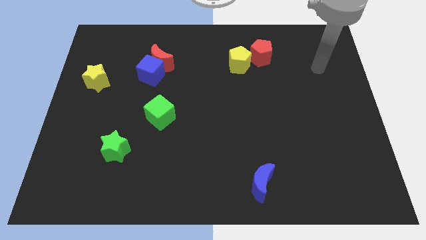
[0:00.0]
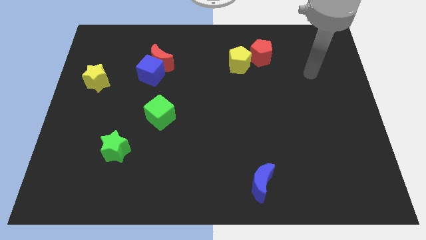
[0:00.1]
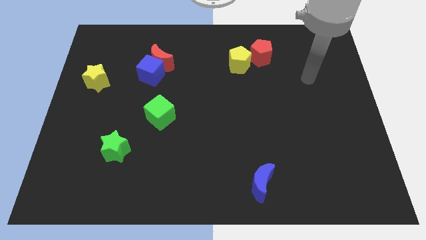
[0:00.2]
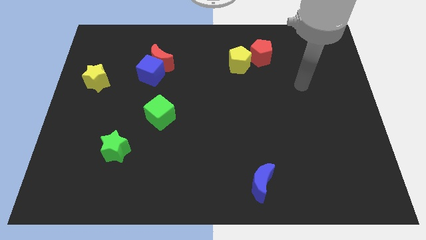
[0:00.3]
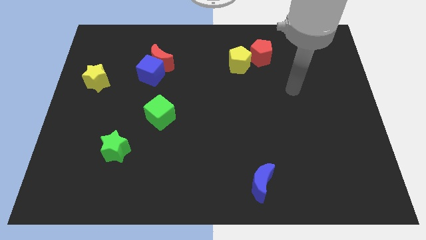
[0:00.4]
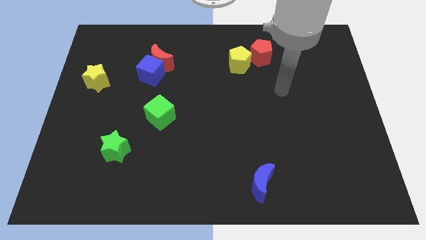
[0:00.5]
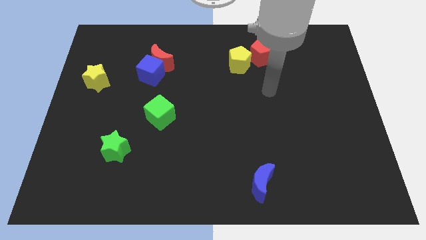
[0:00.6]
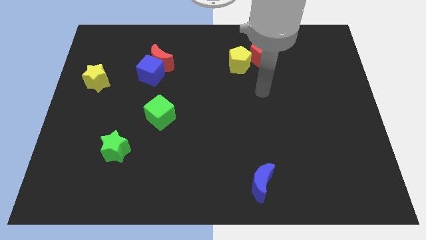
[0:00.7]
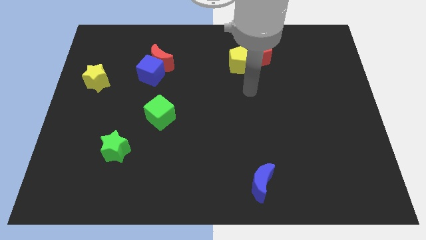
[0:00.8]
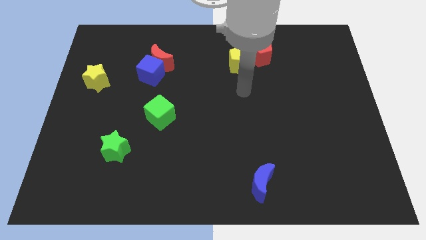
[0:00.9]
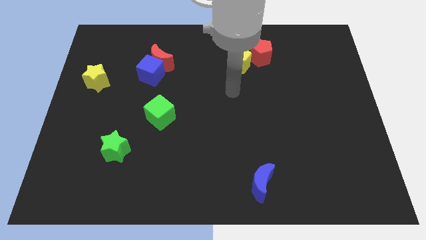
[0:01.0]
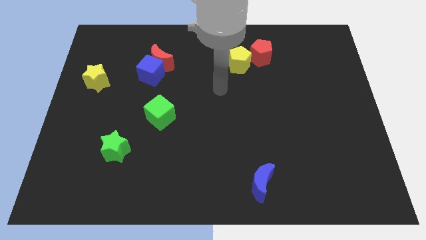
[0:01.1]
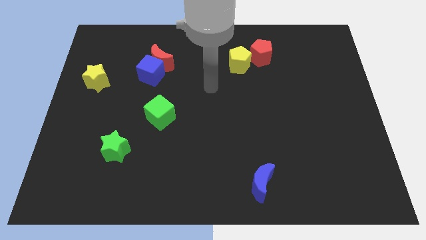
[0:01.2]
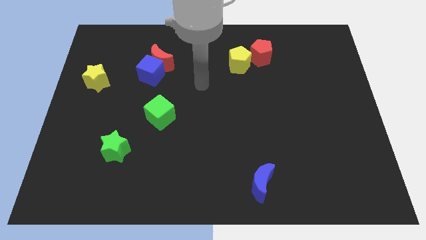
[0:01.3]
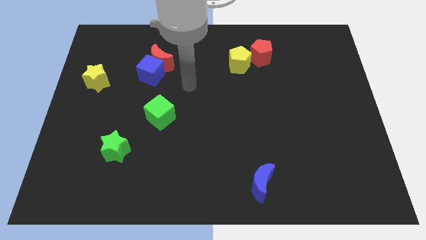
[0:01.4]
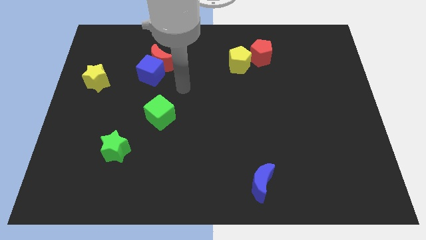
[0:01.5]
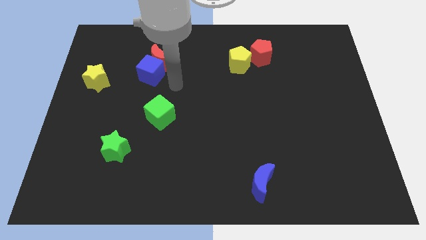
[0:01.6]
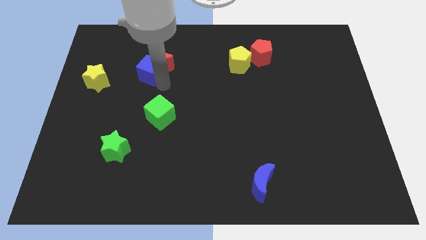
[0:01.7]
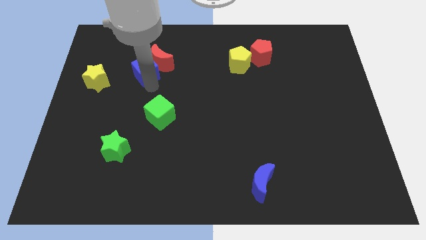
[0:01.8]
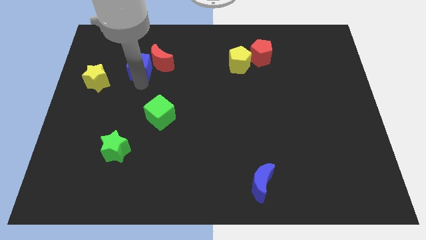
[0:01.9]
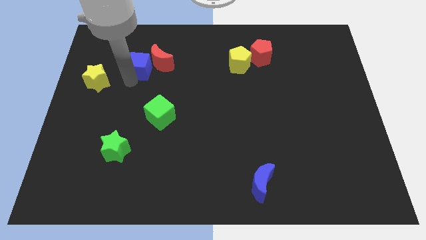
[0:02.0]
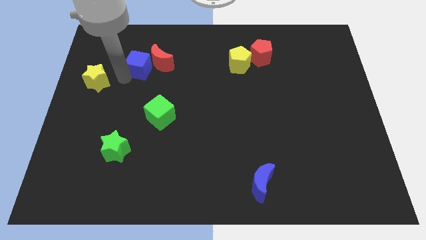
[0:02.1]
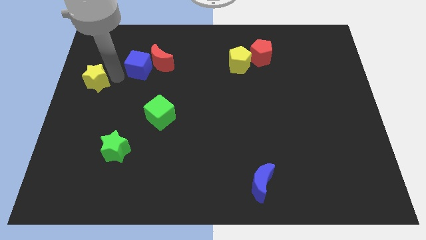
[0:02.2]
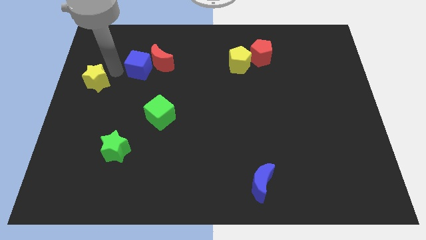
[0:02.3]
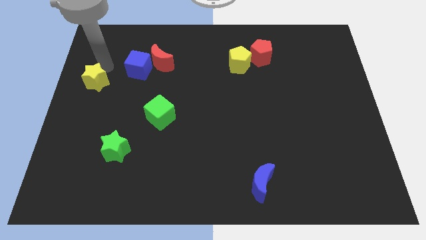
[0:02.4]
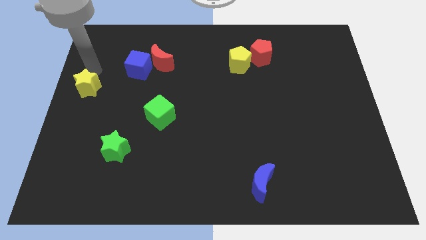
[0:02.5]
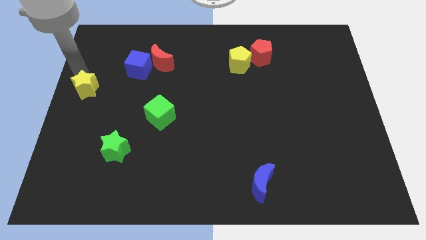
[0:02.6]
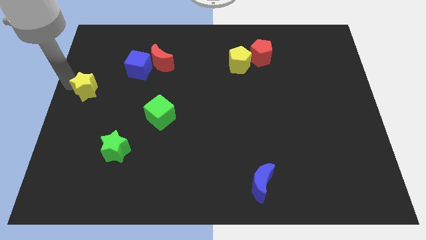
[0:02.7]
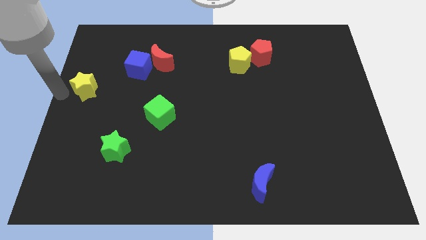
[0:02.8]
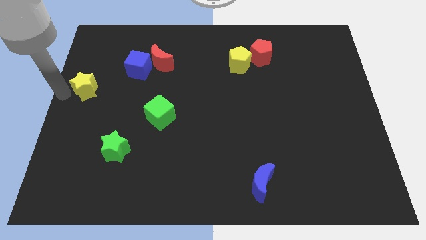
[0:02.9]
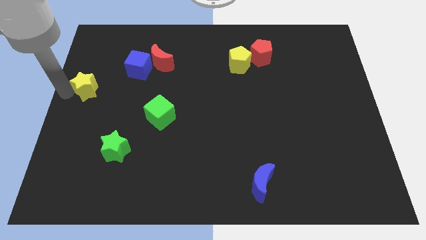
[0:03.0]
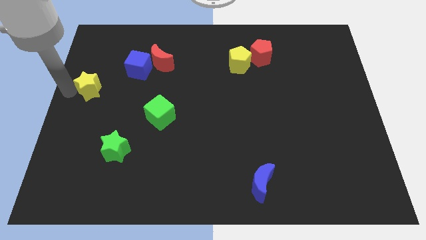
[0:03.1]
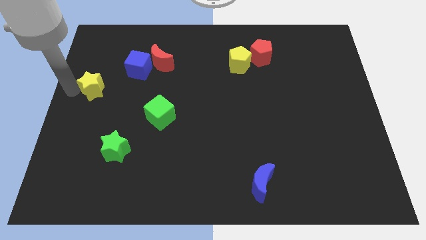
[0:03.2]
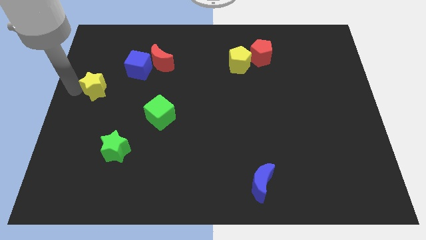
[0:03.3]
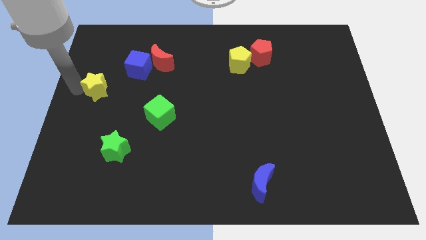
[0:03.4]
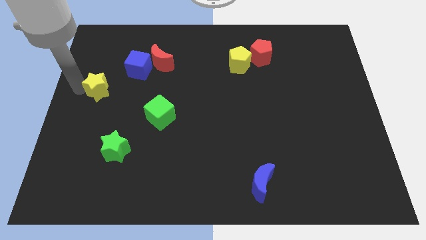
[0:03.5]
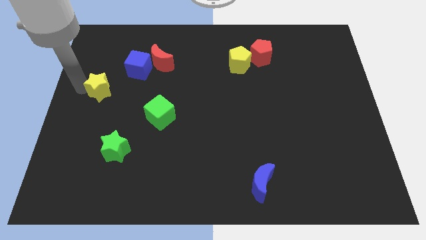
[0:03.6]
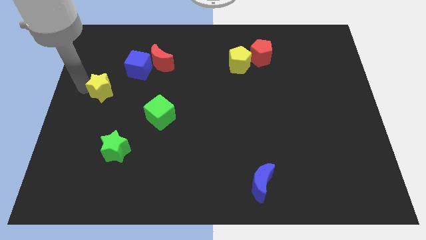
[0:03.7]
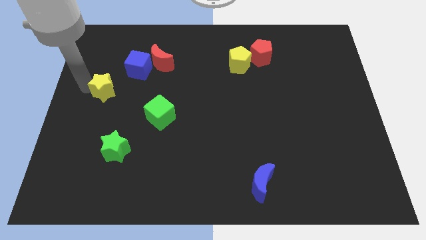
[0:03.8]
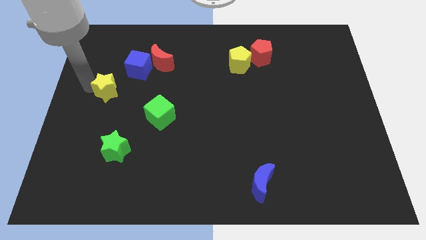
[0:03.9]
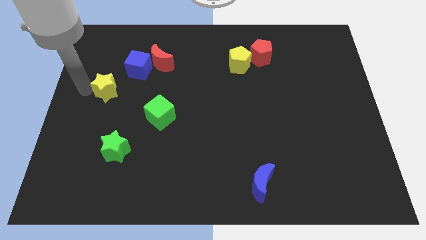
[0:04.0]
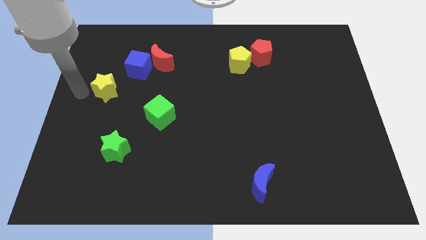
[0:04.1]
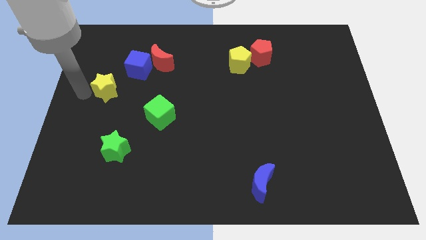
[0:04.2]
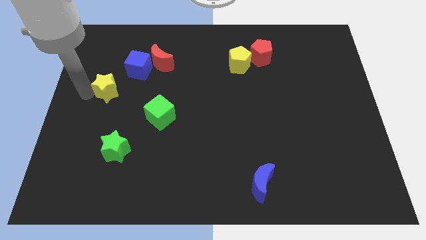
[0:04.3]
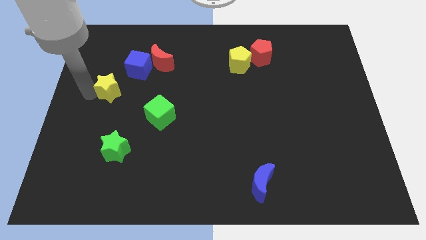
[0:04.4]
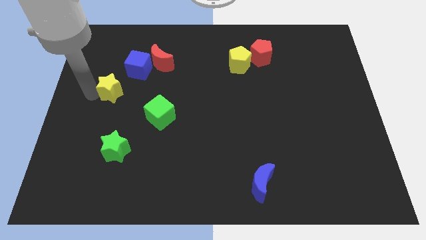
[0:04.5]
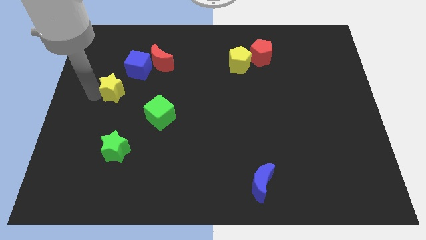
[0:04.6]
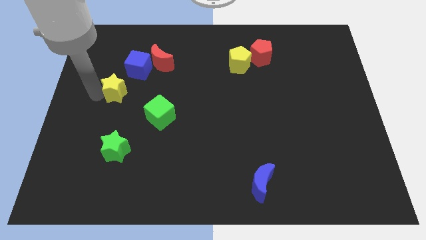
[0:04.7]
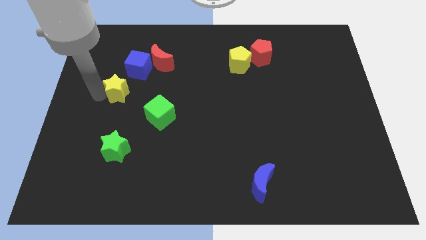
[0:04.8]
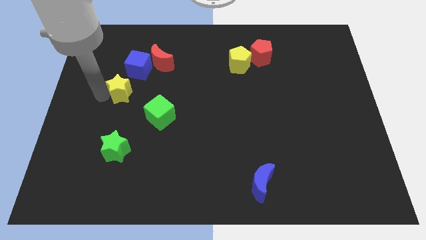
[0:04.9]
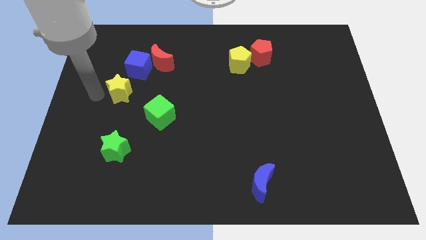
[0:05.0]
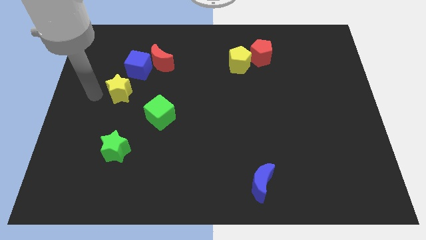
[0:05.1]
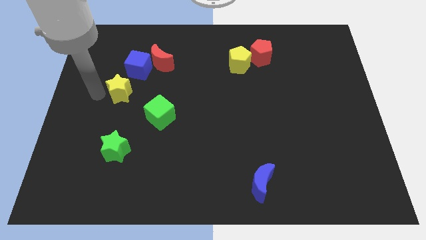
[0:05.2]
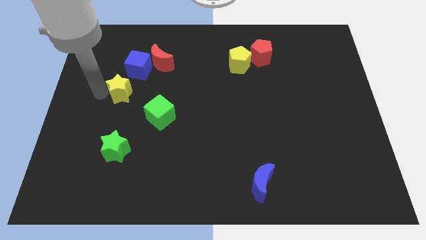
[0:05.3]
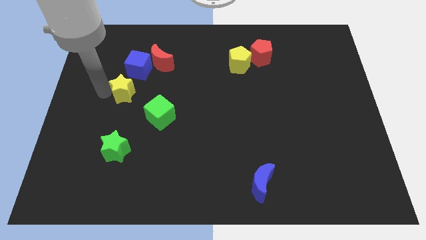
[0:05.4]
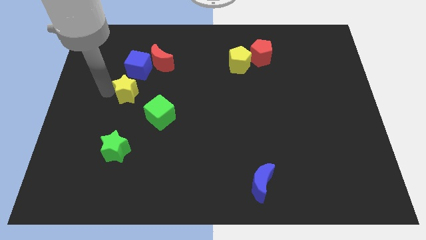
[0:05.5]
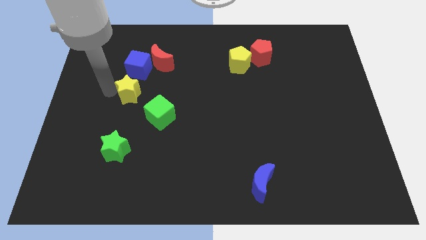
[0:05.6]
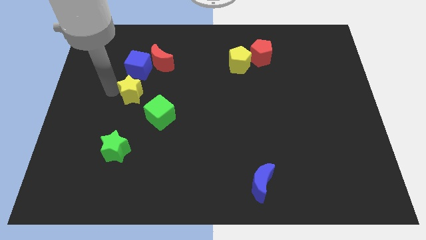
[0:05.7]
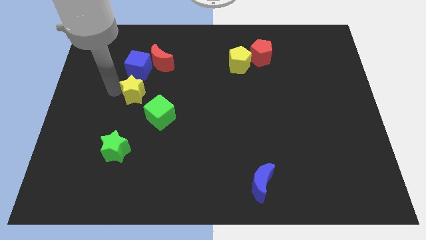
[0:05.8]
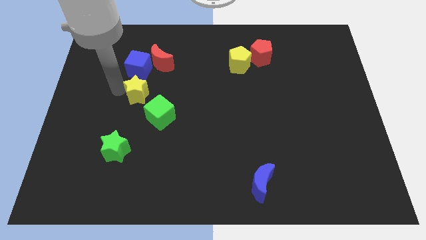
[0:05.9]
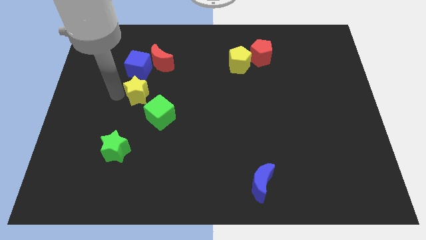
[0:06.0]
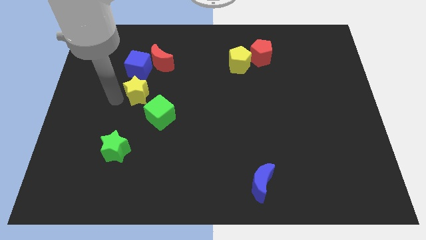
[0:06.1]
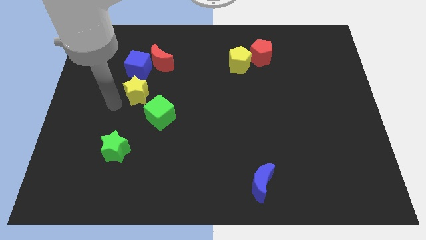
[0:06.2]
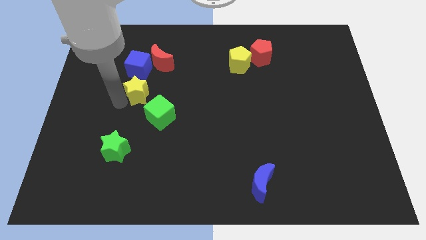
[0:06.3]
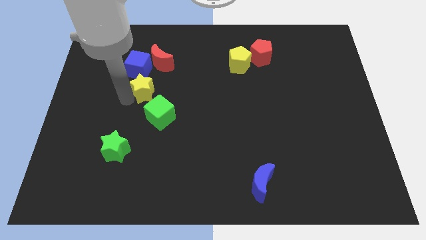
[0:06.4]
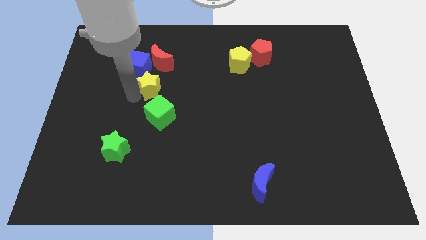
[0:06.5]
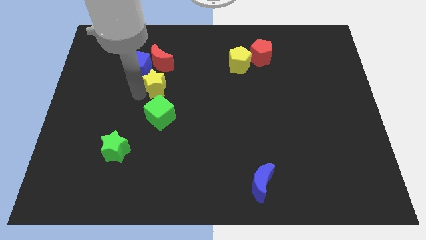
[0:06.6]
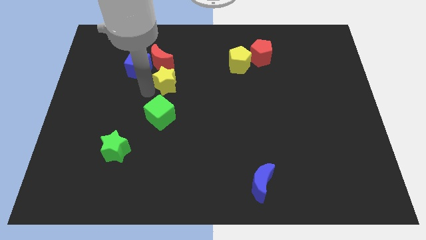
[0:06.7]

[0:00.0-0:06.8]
slide the yellow star to the right side of the blue cube

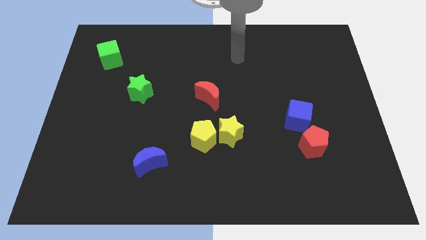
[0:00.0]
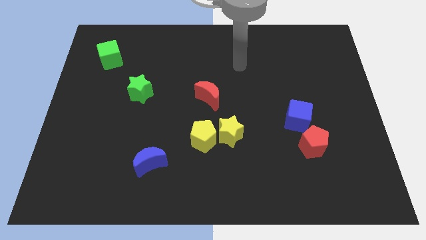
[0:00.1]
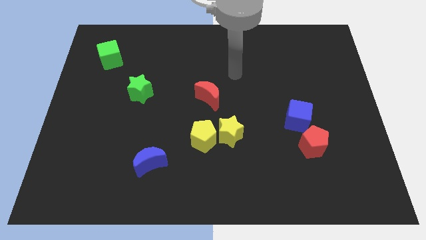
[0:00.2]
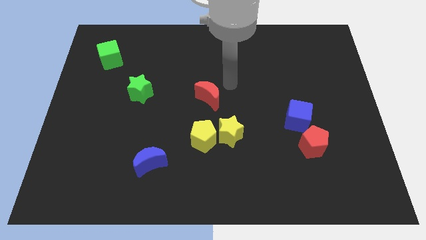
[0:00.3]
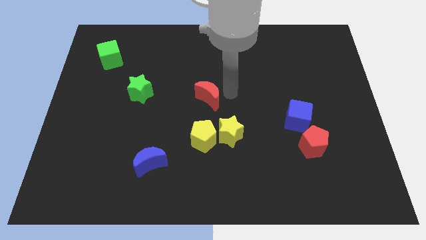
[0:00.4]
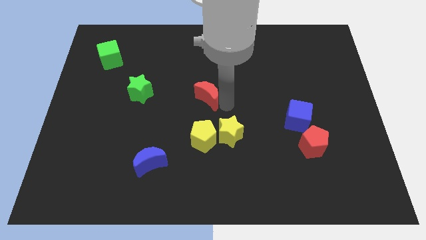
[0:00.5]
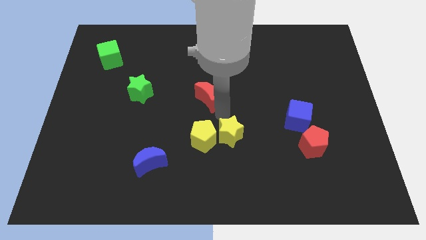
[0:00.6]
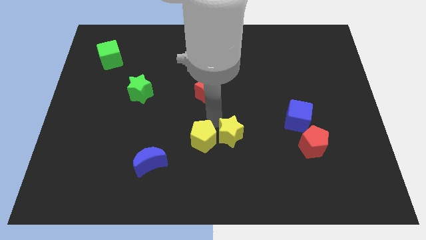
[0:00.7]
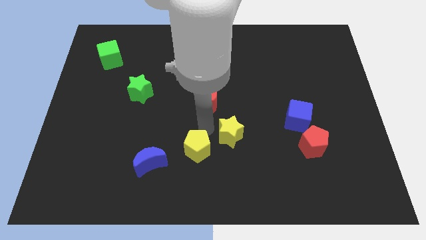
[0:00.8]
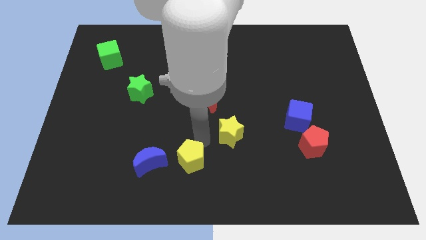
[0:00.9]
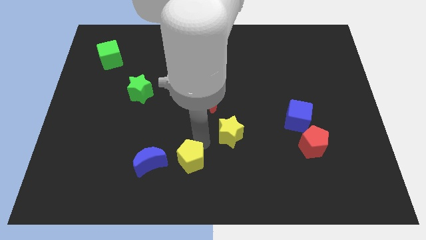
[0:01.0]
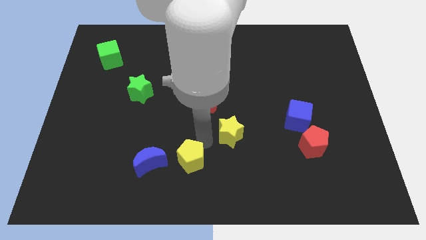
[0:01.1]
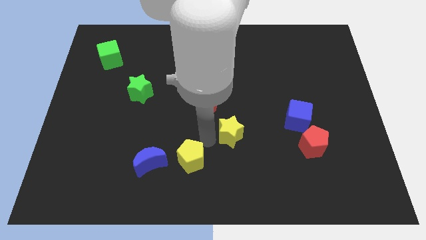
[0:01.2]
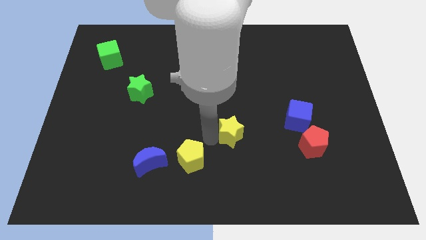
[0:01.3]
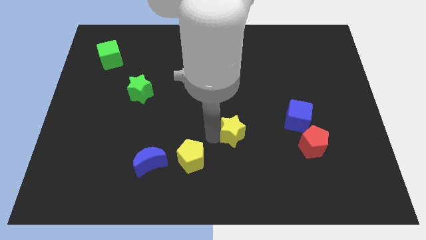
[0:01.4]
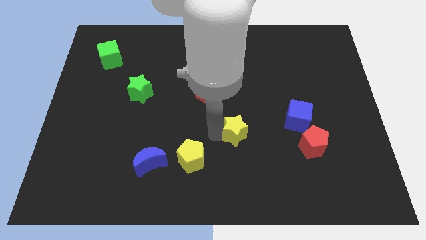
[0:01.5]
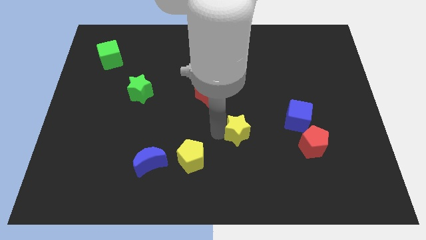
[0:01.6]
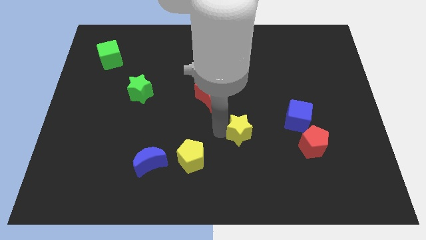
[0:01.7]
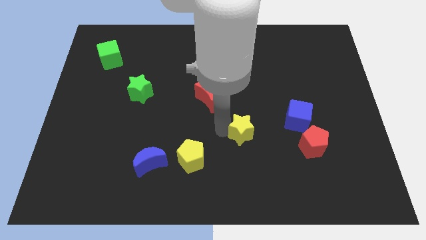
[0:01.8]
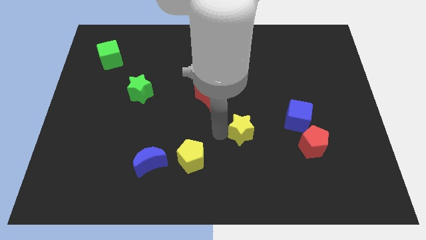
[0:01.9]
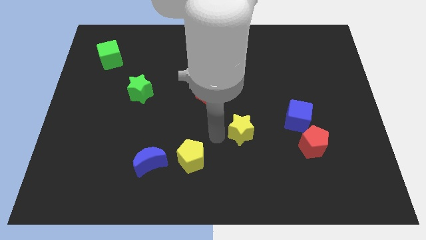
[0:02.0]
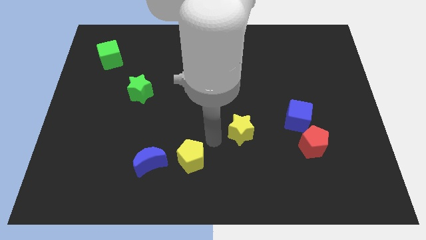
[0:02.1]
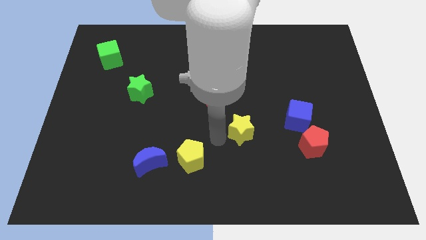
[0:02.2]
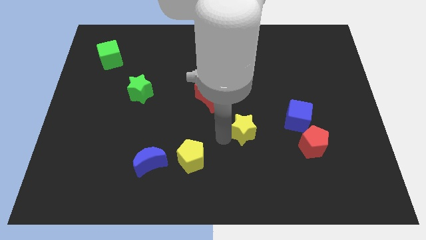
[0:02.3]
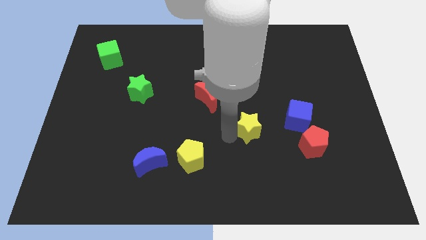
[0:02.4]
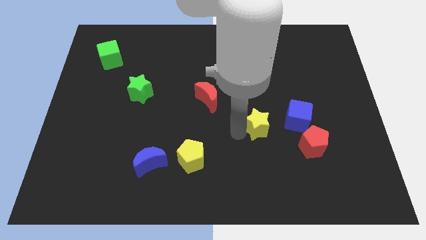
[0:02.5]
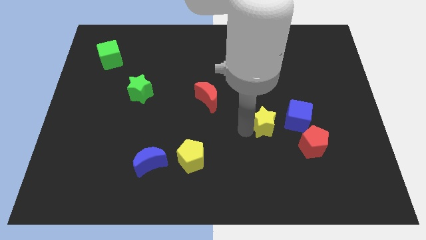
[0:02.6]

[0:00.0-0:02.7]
put the yellow star to the top left of the red pentagon
